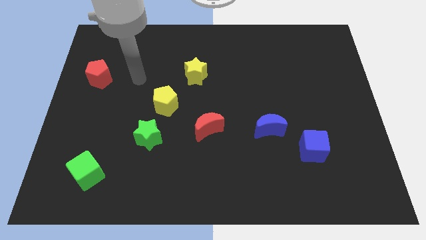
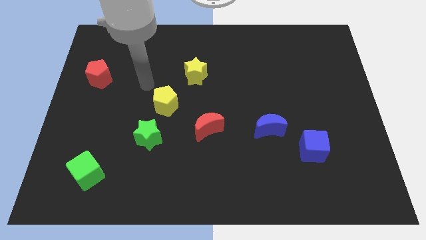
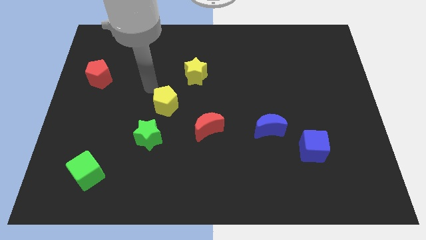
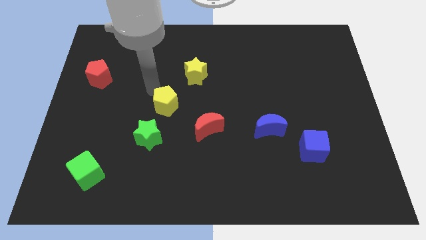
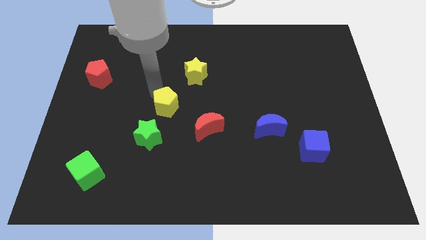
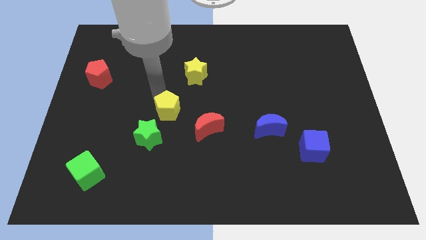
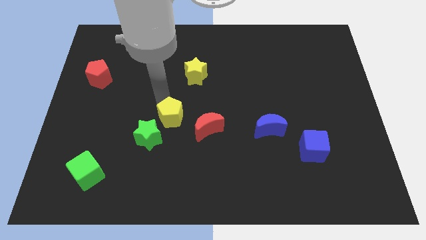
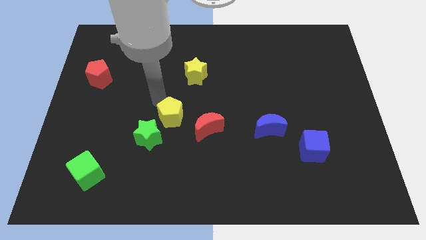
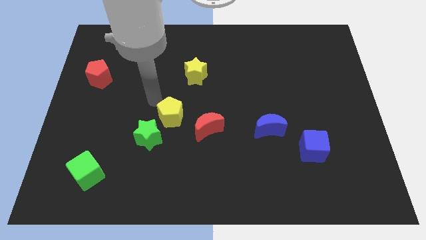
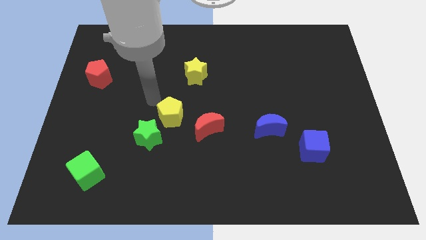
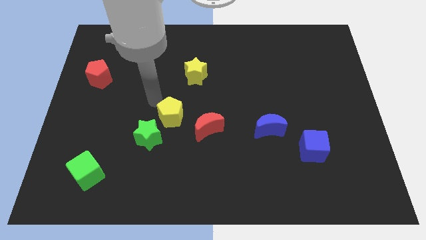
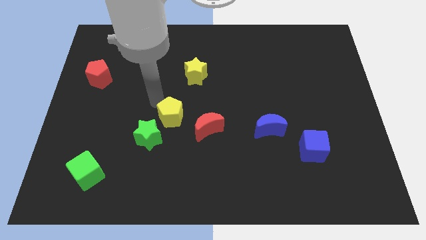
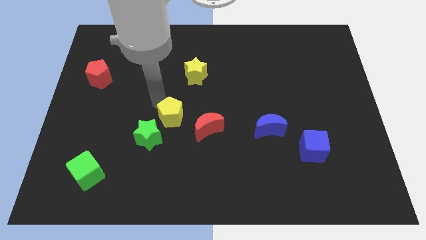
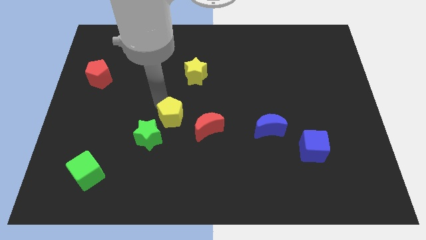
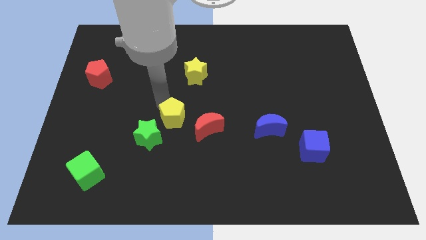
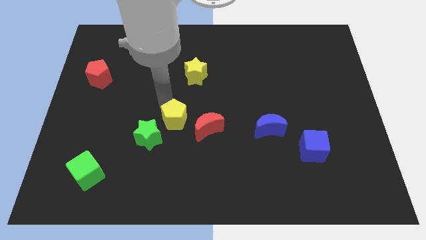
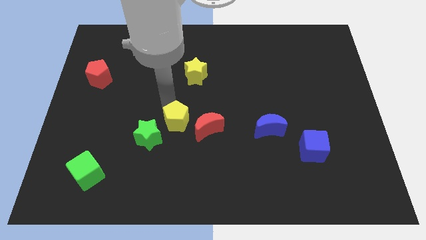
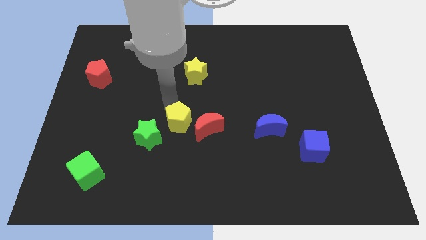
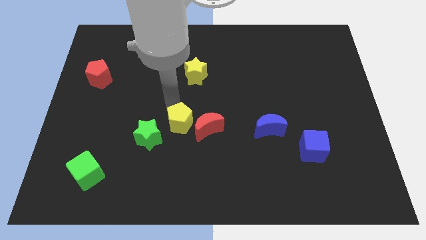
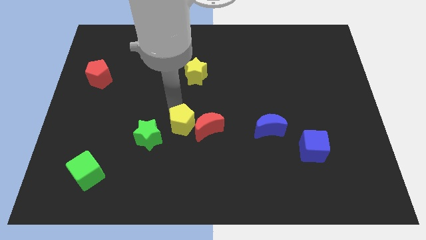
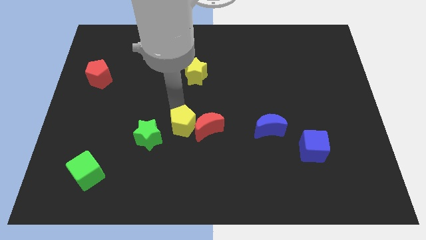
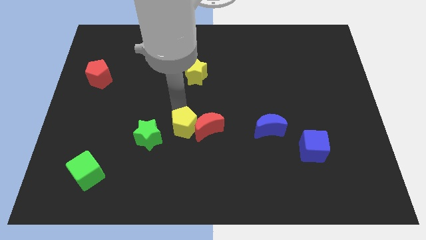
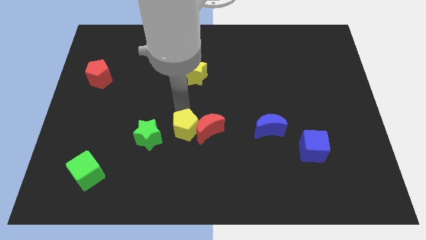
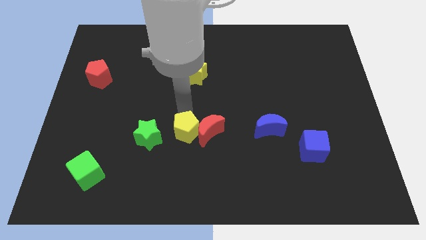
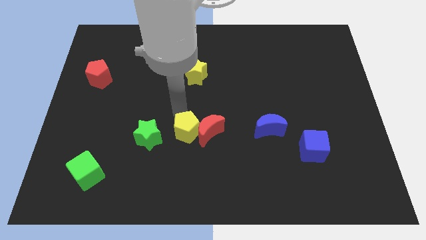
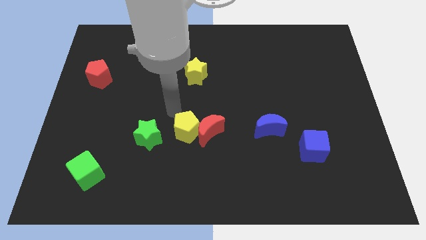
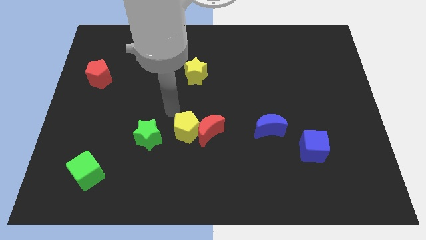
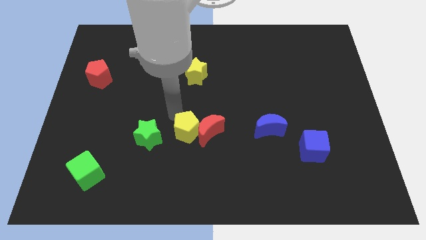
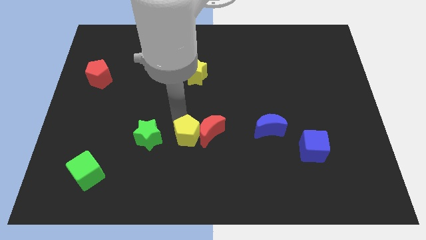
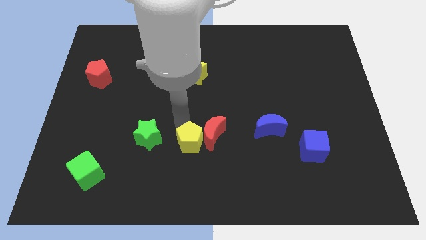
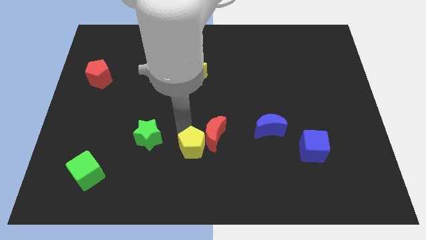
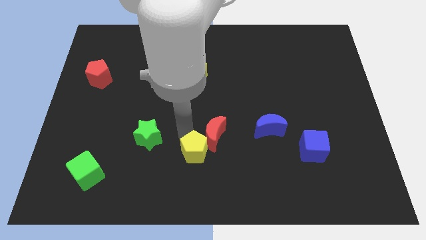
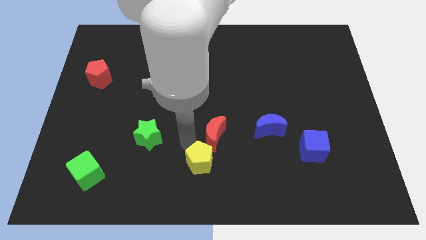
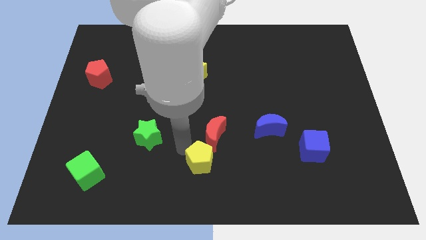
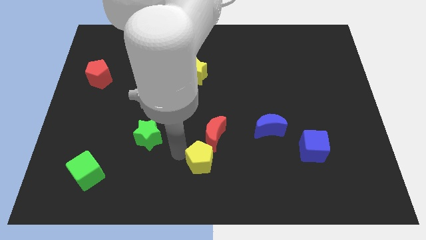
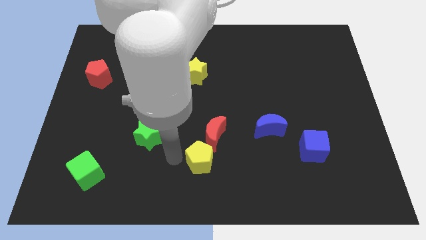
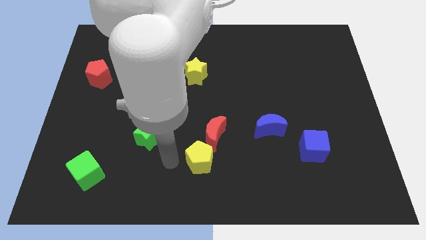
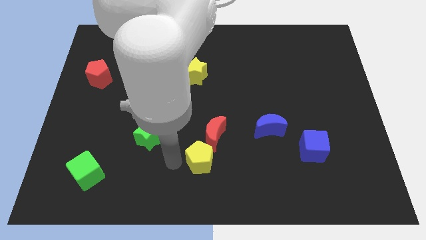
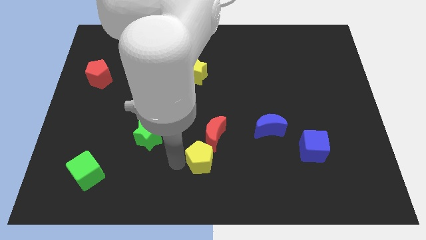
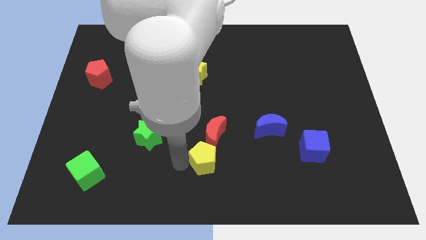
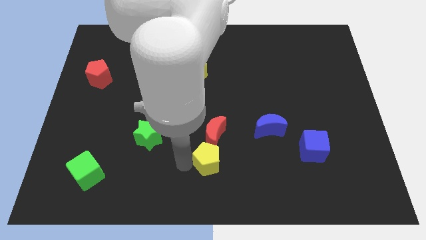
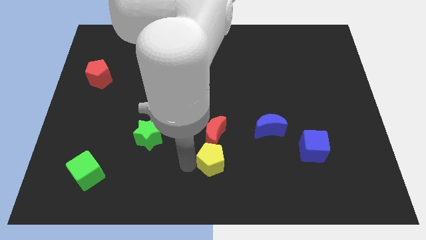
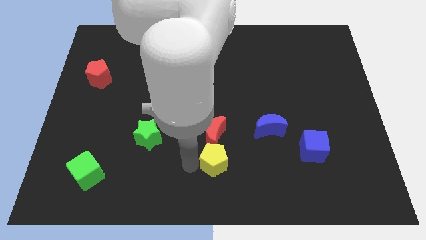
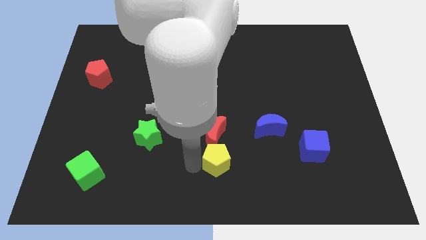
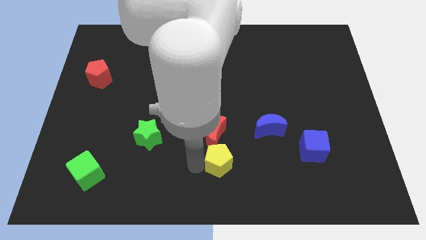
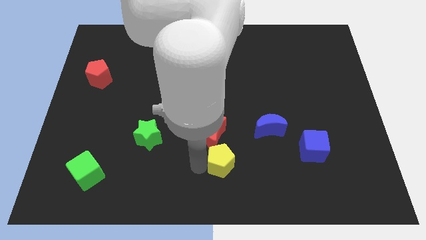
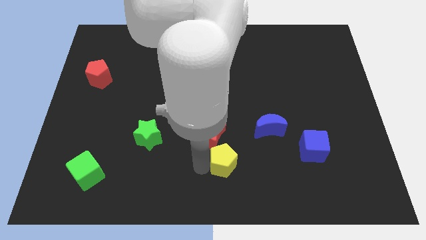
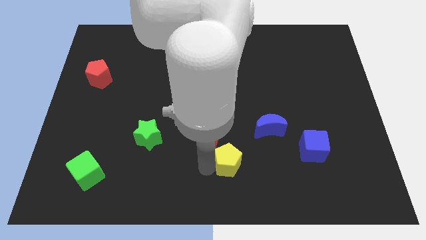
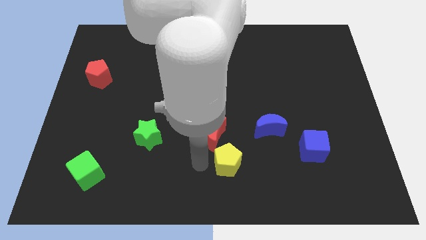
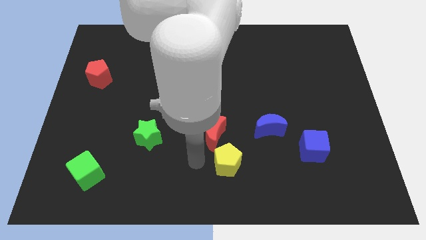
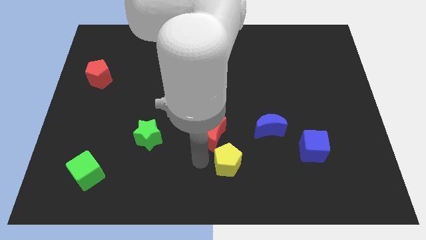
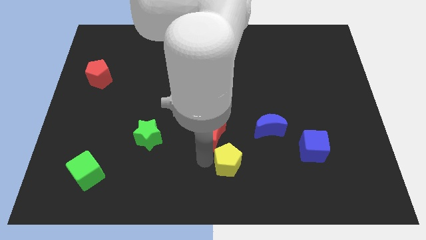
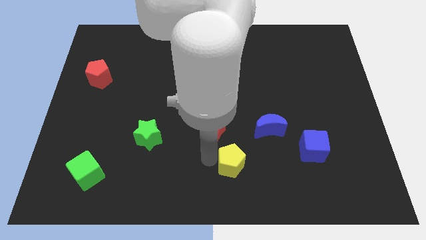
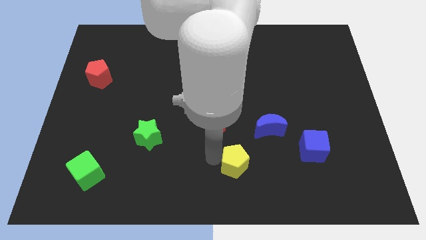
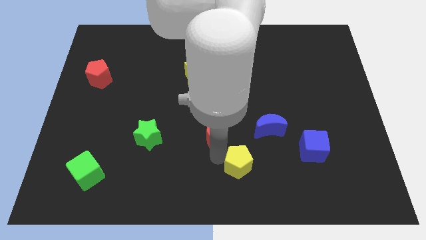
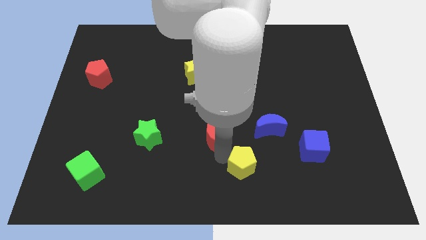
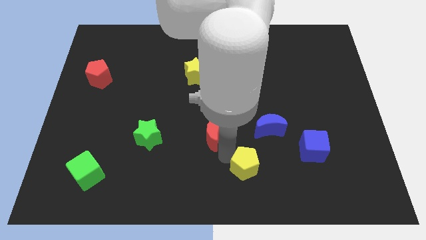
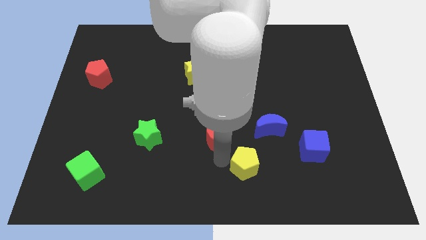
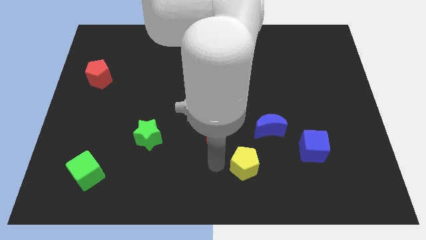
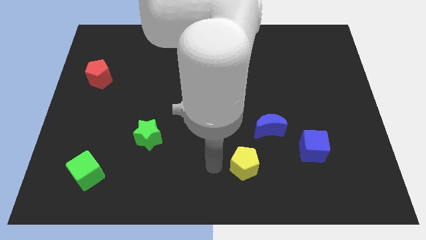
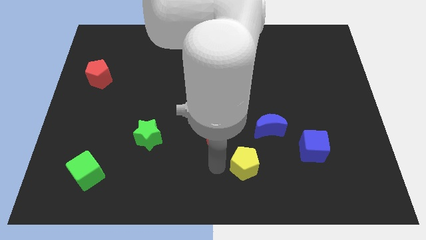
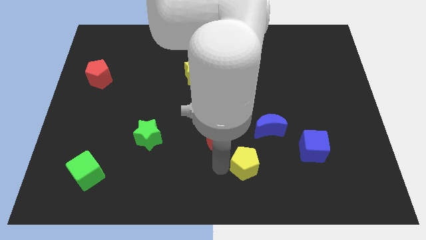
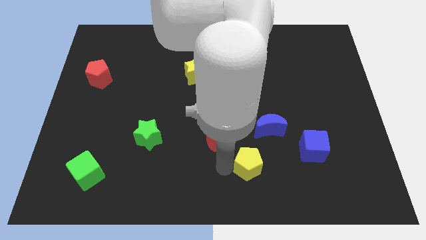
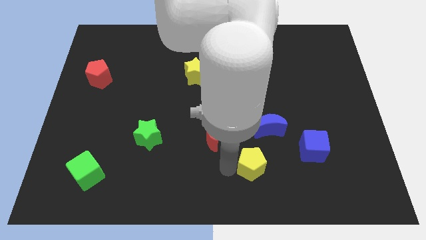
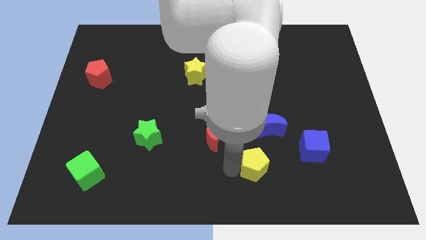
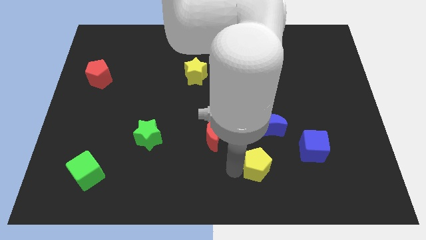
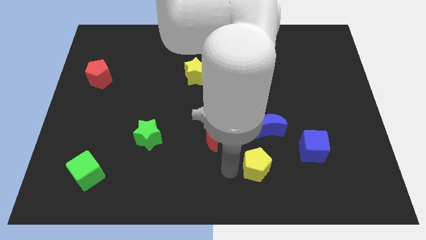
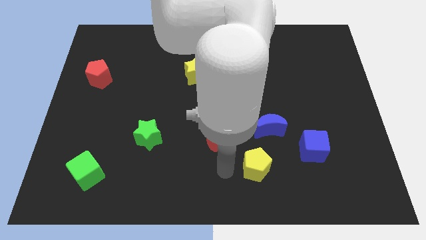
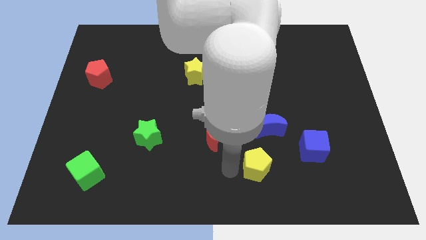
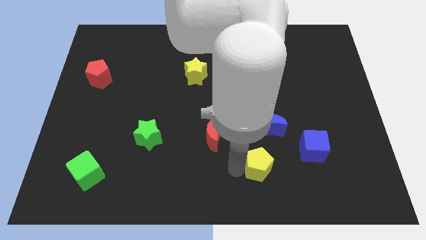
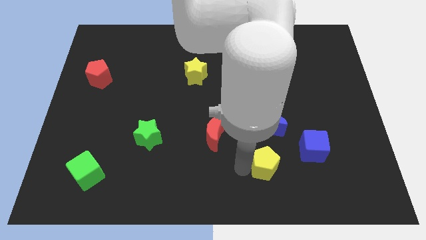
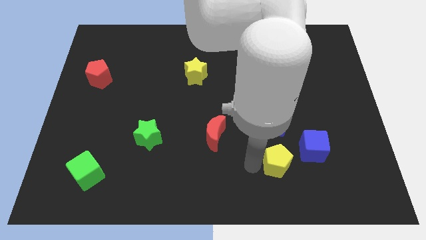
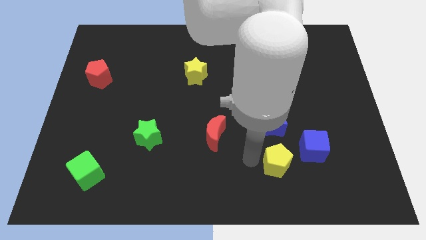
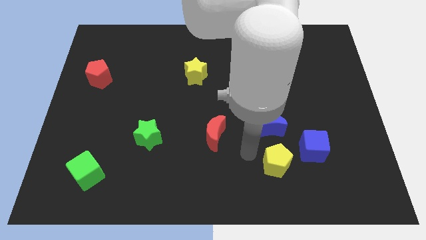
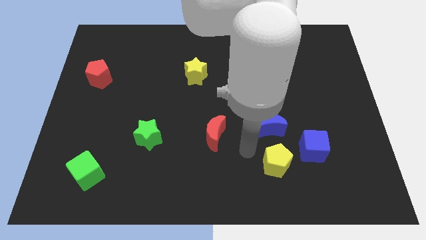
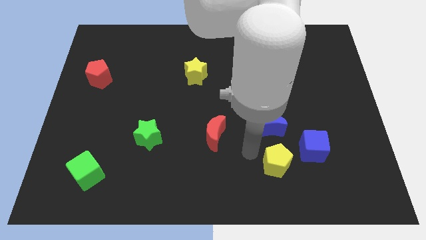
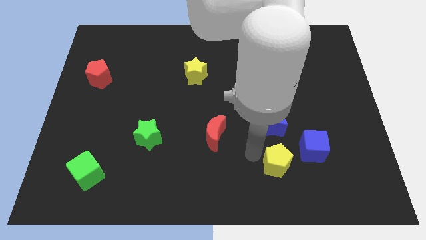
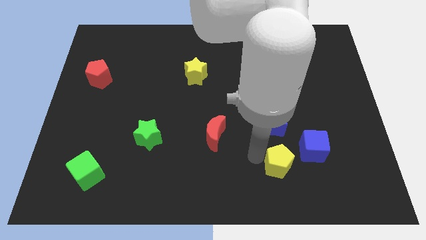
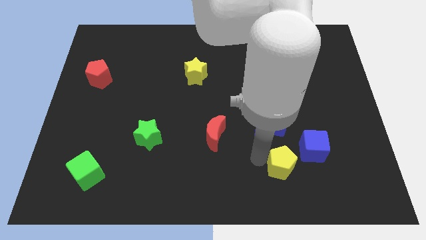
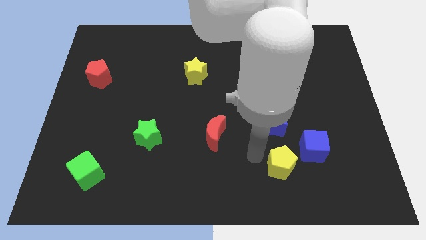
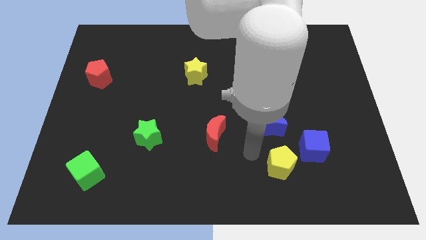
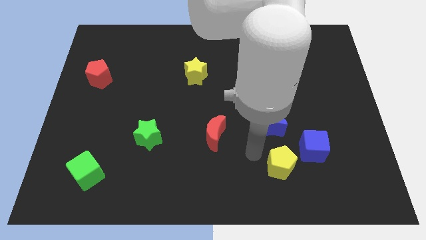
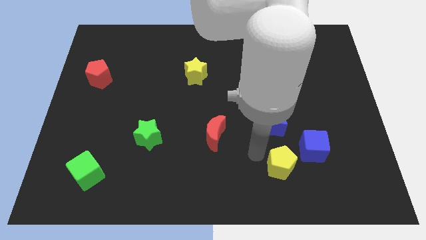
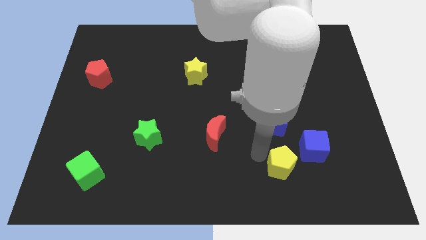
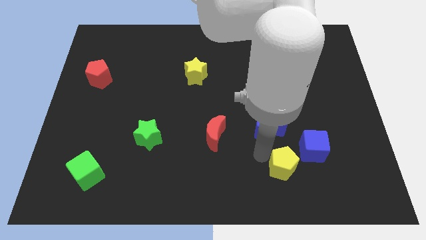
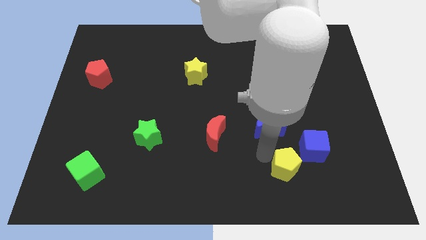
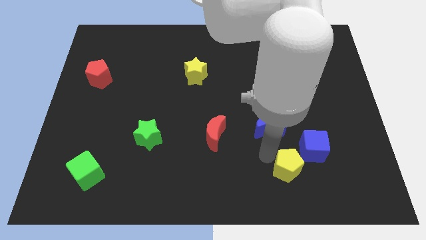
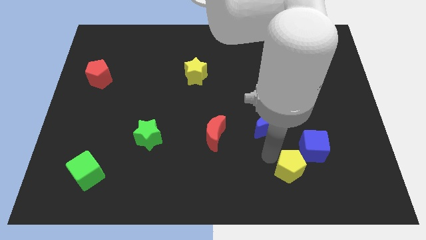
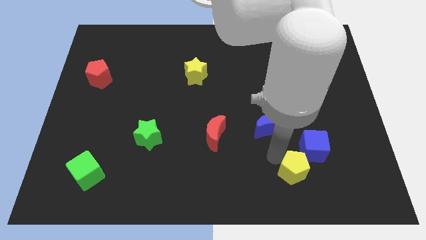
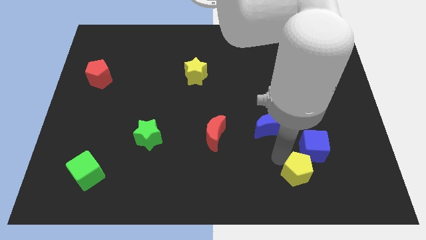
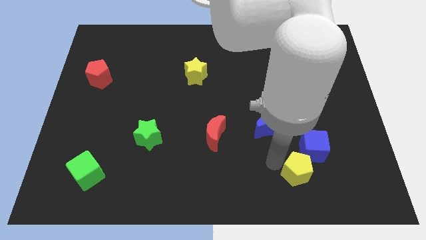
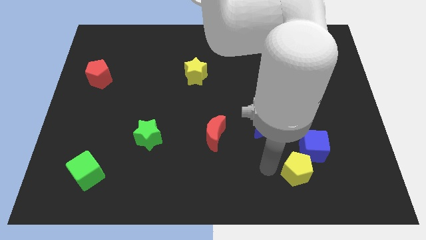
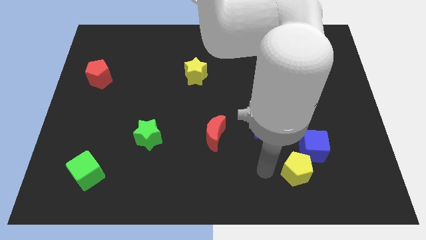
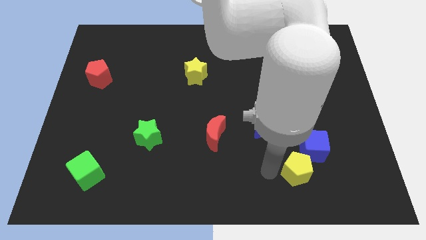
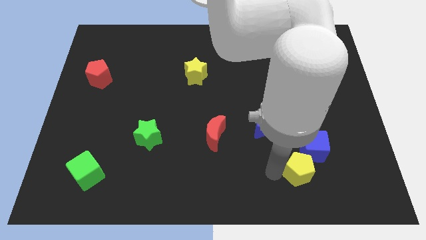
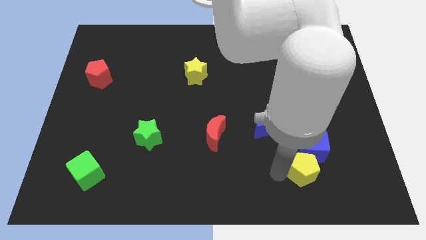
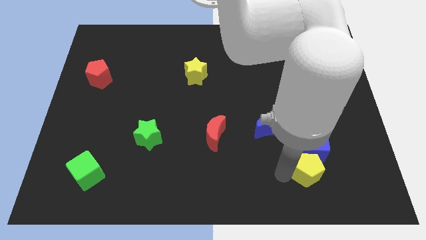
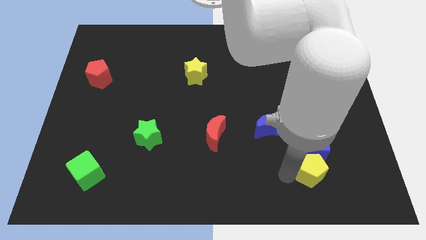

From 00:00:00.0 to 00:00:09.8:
move the yellow pentagon to the bottom right of the blue cube
